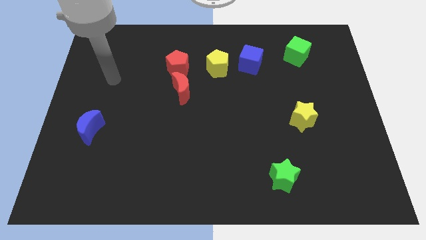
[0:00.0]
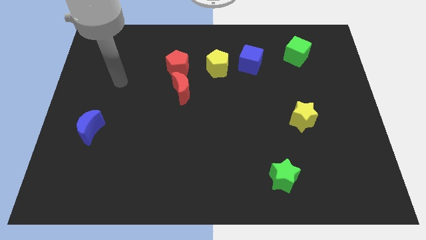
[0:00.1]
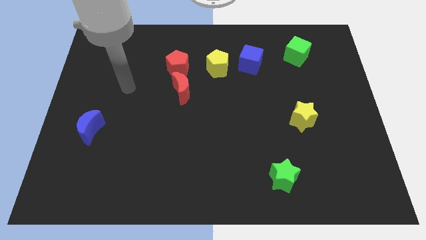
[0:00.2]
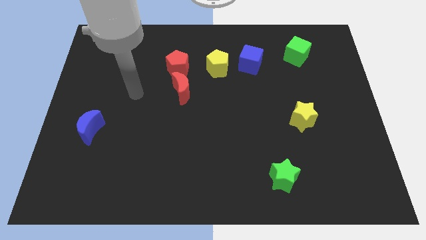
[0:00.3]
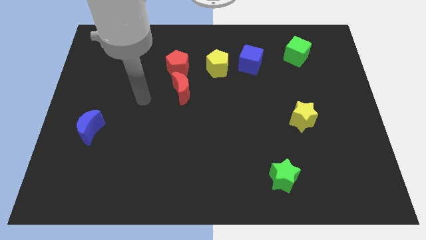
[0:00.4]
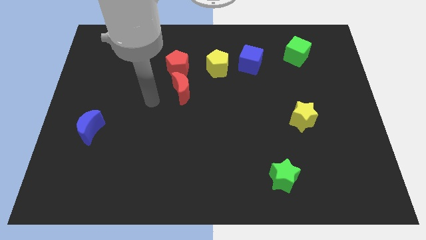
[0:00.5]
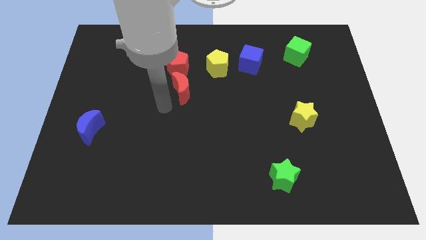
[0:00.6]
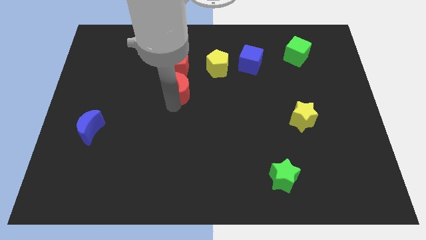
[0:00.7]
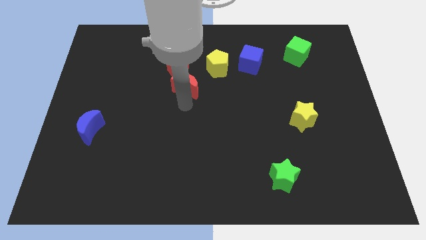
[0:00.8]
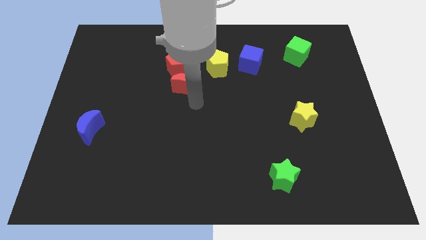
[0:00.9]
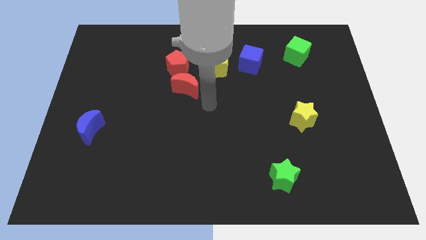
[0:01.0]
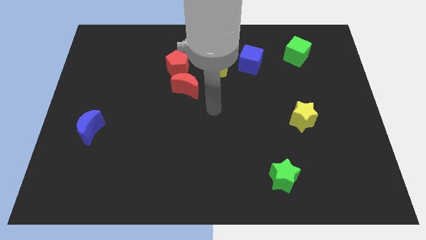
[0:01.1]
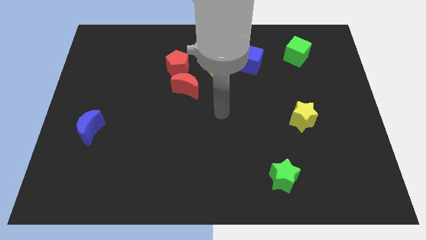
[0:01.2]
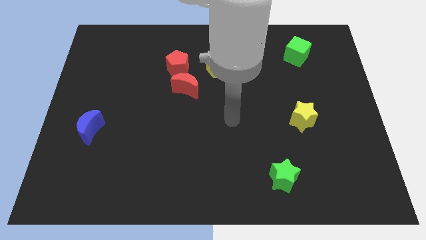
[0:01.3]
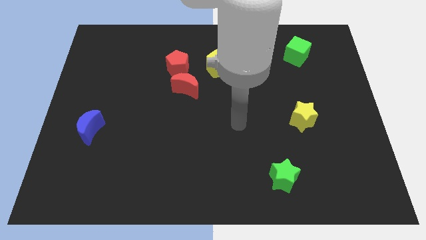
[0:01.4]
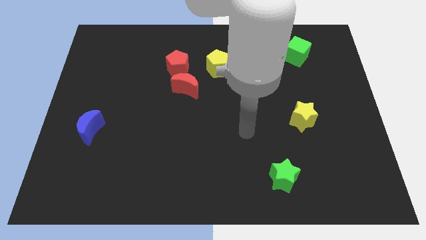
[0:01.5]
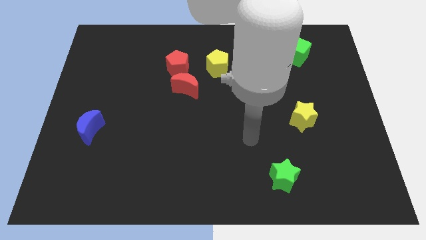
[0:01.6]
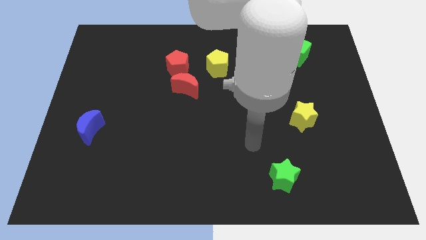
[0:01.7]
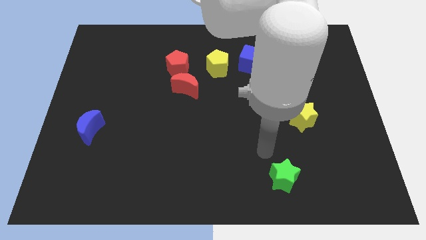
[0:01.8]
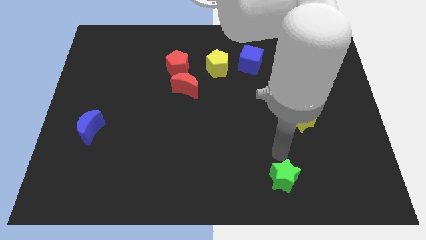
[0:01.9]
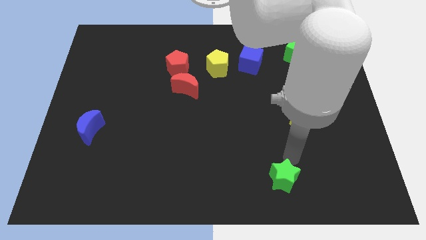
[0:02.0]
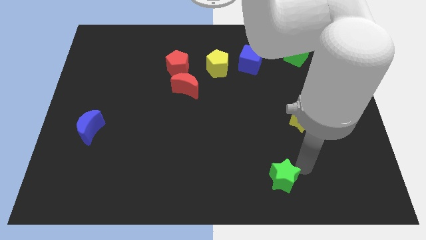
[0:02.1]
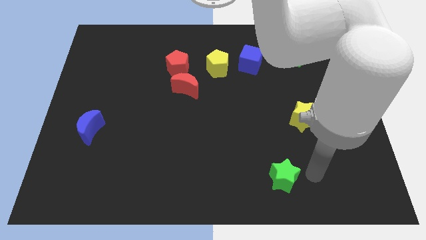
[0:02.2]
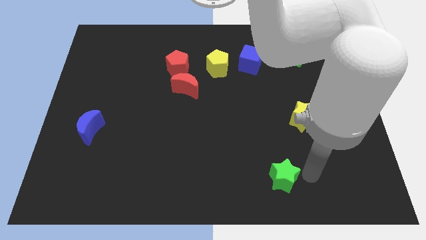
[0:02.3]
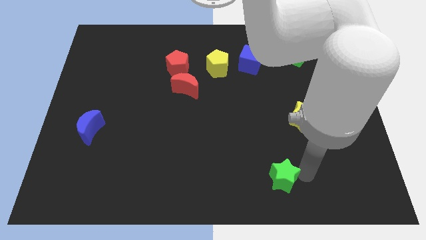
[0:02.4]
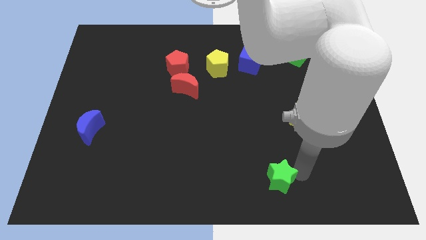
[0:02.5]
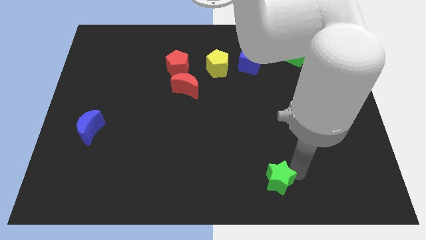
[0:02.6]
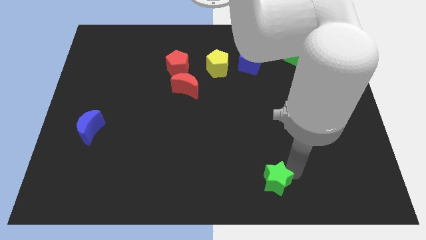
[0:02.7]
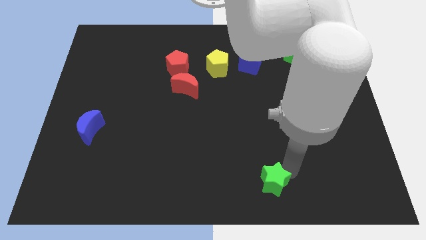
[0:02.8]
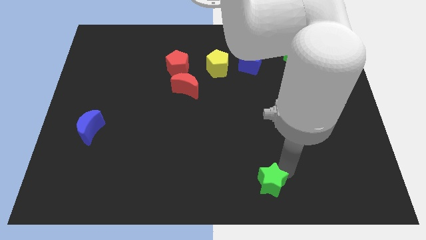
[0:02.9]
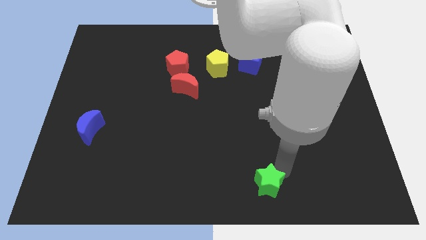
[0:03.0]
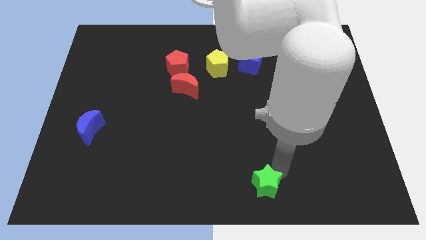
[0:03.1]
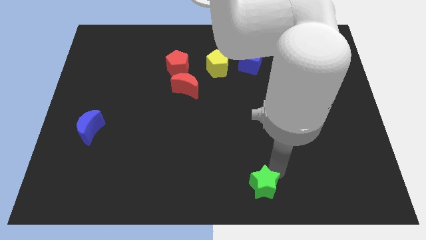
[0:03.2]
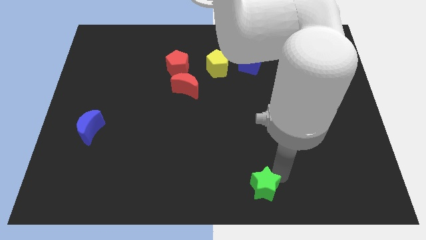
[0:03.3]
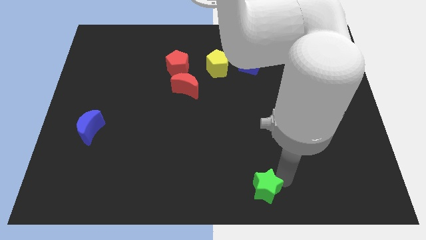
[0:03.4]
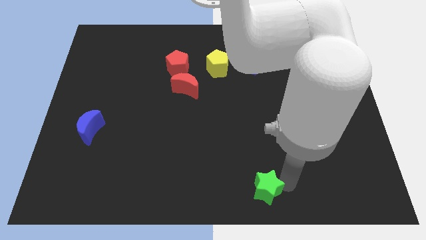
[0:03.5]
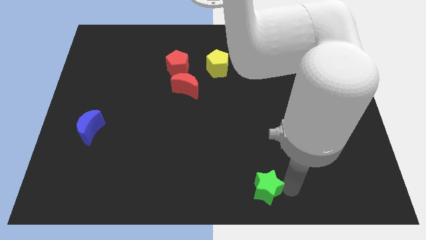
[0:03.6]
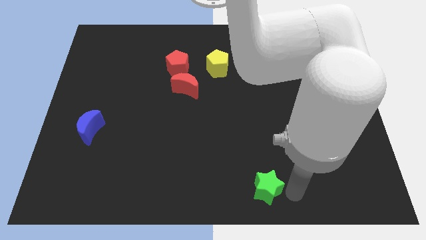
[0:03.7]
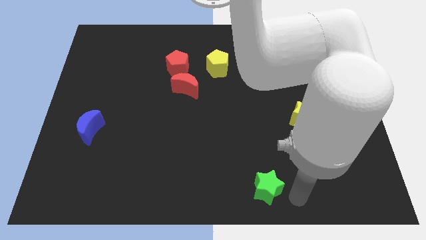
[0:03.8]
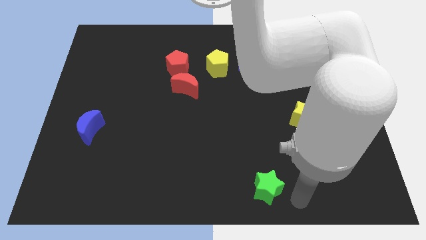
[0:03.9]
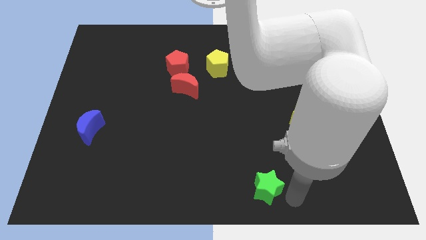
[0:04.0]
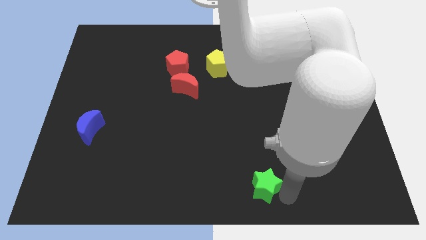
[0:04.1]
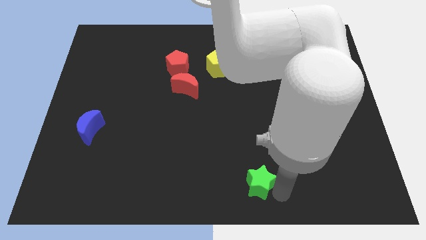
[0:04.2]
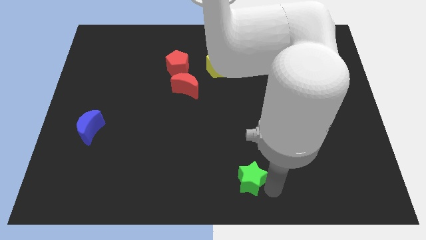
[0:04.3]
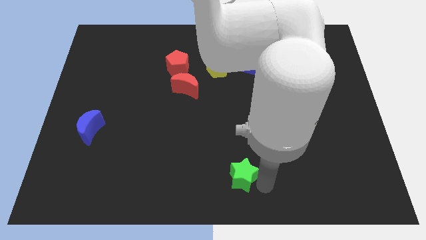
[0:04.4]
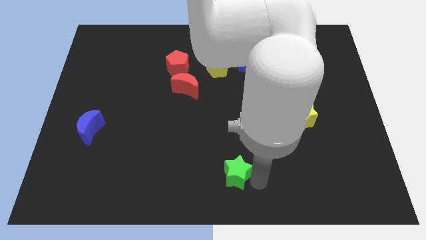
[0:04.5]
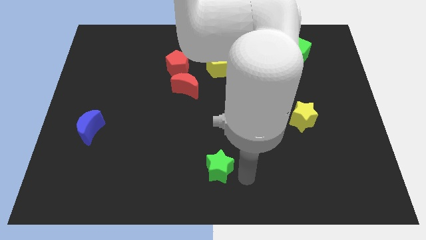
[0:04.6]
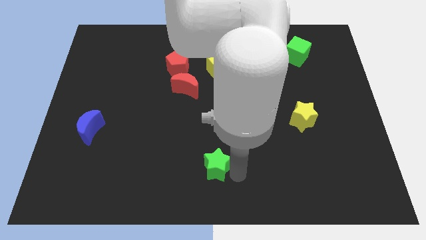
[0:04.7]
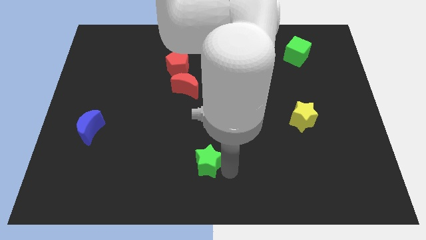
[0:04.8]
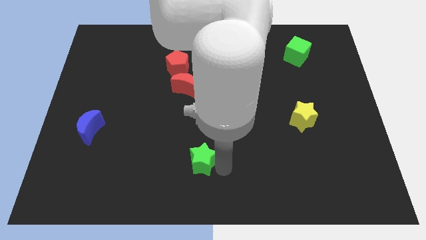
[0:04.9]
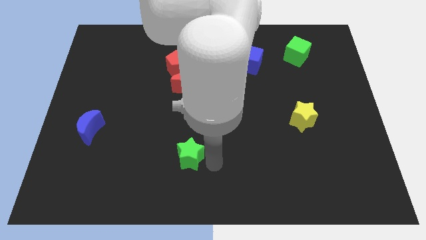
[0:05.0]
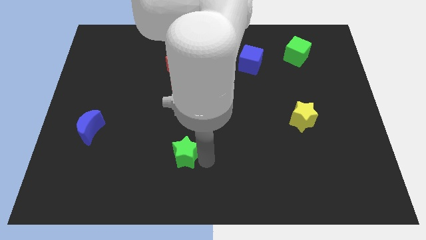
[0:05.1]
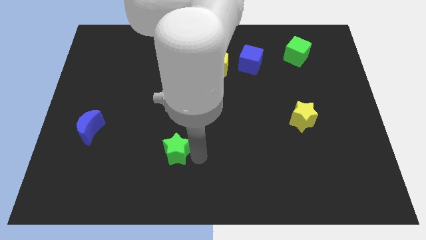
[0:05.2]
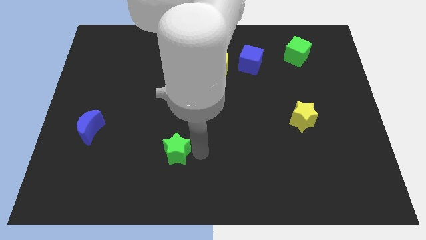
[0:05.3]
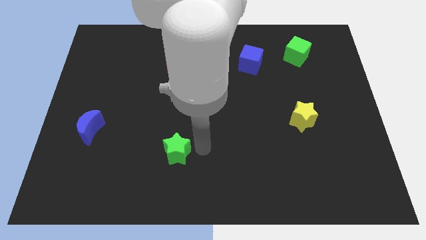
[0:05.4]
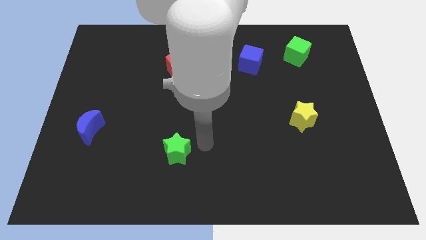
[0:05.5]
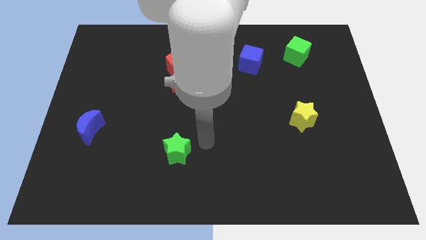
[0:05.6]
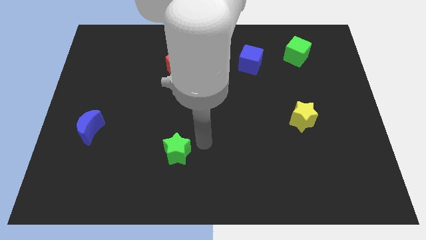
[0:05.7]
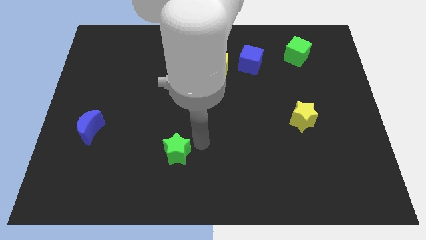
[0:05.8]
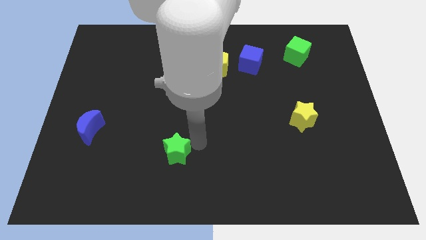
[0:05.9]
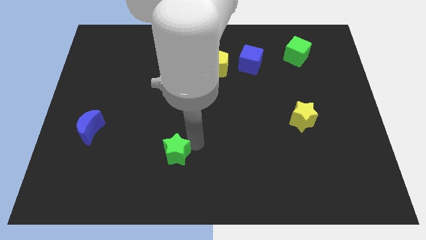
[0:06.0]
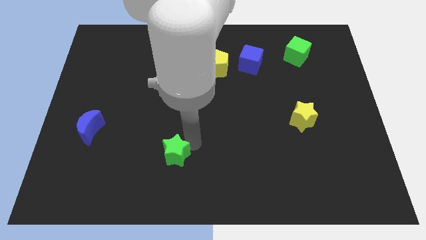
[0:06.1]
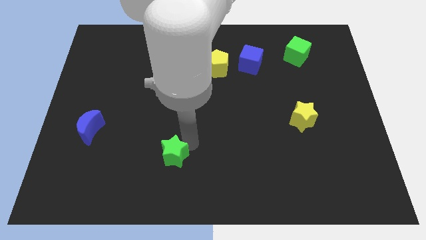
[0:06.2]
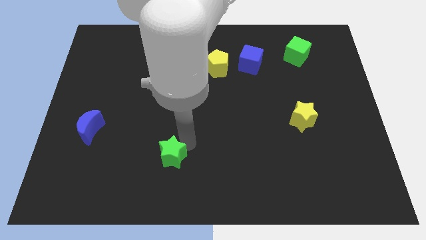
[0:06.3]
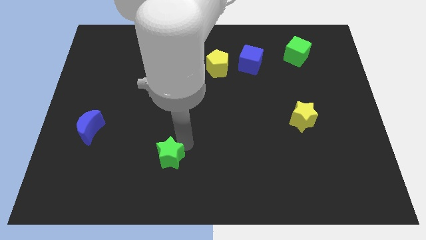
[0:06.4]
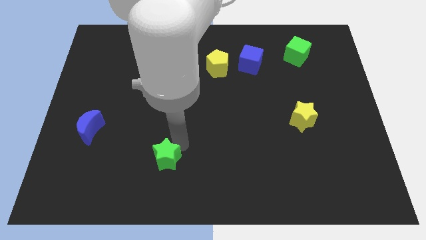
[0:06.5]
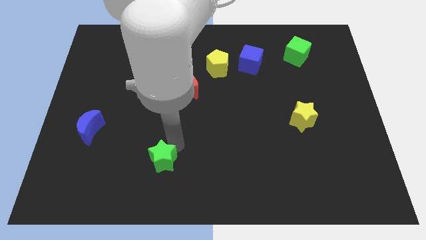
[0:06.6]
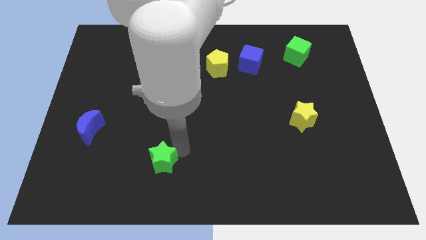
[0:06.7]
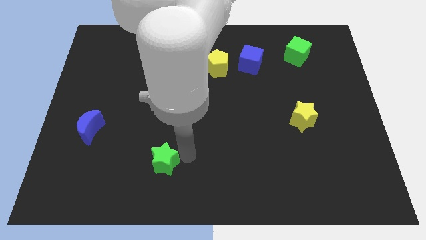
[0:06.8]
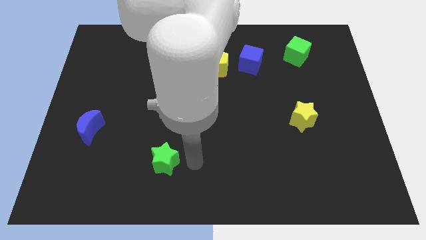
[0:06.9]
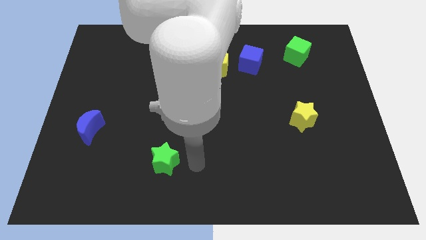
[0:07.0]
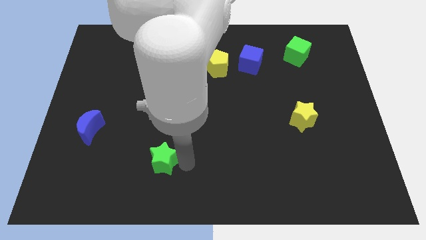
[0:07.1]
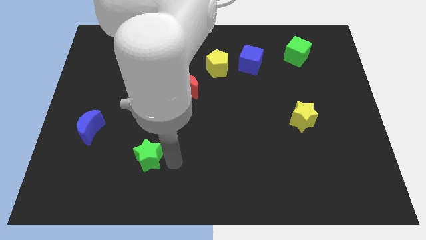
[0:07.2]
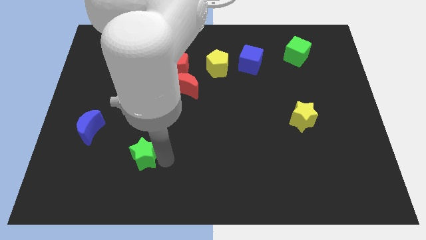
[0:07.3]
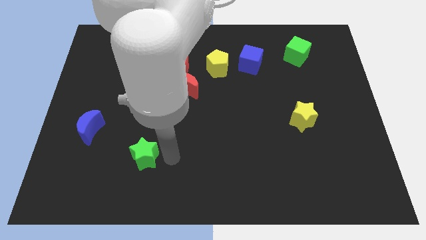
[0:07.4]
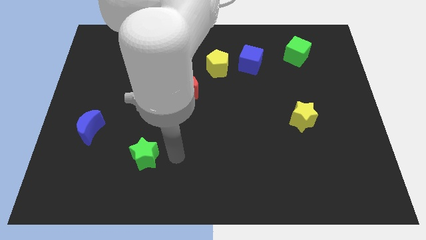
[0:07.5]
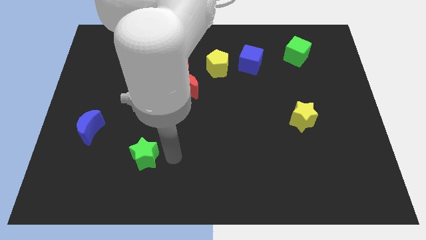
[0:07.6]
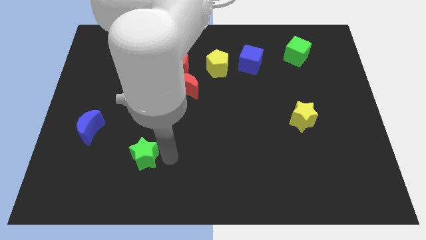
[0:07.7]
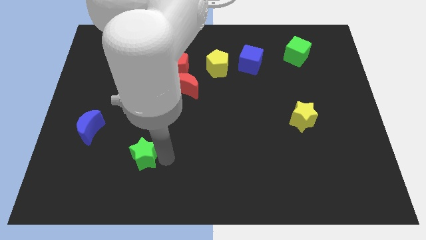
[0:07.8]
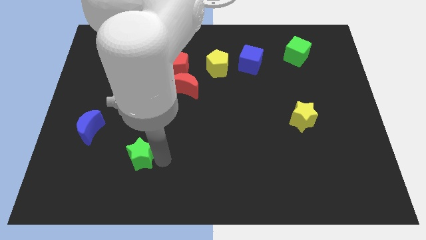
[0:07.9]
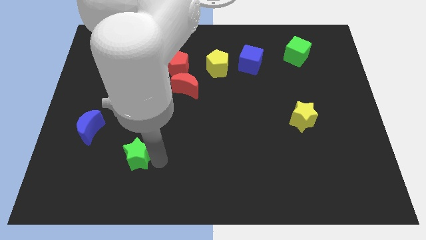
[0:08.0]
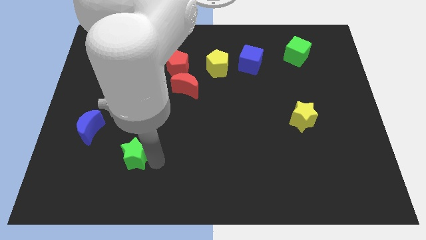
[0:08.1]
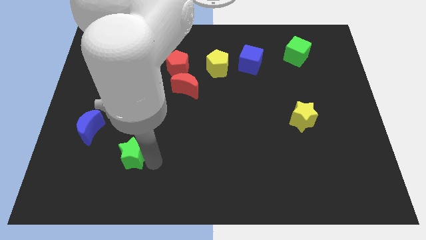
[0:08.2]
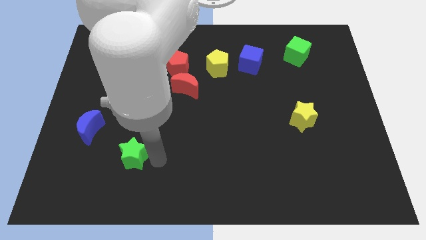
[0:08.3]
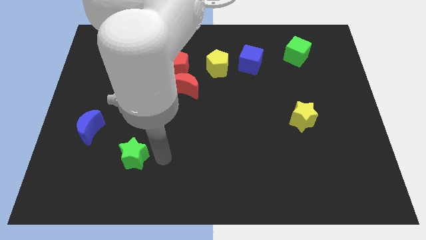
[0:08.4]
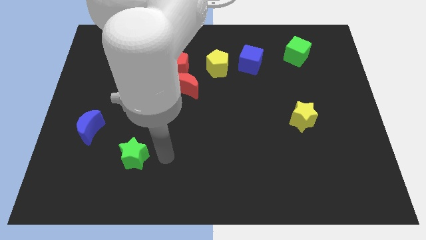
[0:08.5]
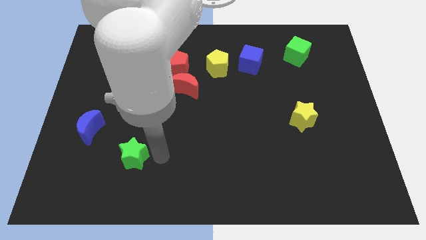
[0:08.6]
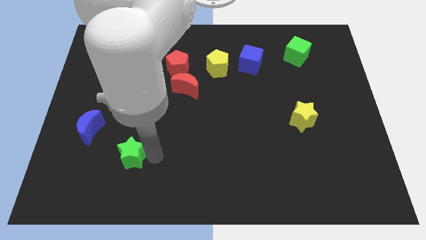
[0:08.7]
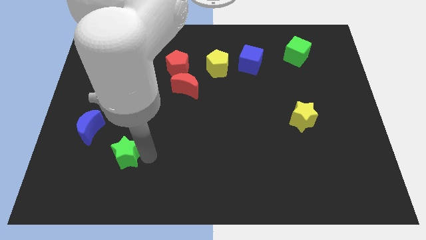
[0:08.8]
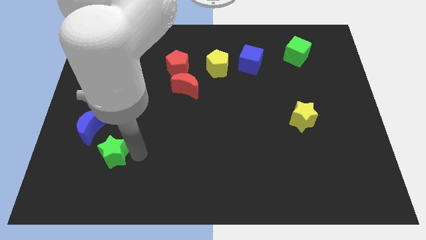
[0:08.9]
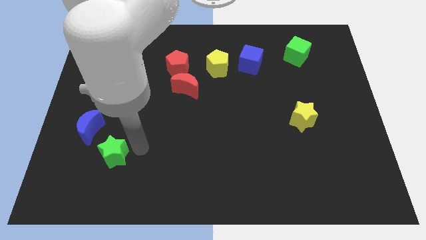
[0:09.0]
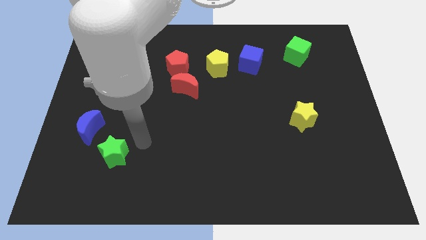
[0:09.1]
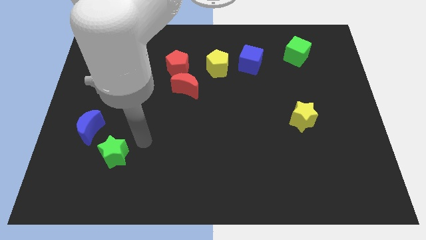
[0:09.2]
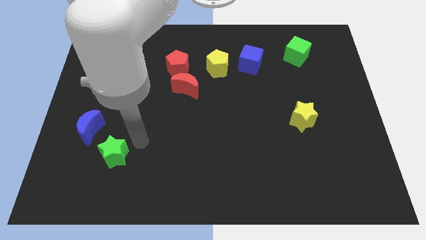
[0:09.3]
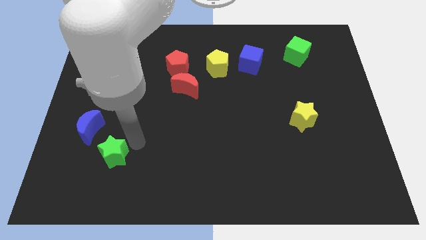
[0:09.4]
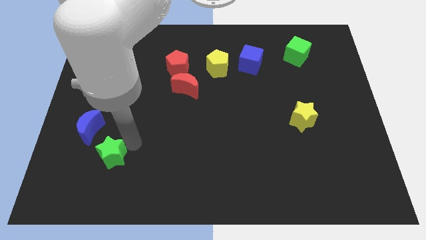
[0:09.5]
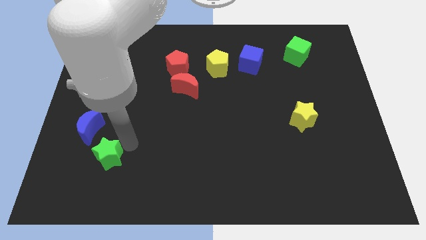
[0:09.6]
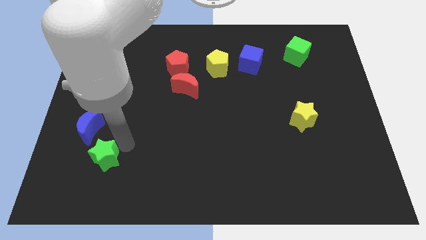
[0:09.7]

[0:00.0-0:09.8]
push the green star to the bottom side of the blue moon
